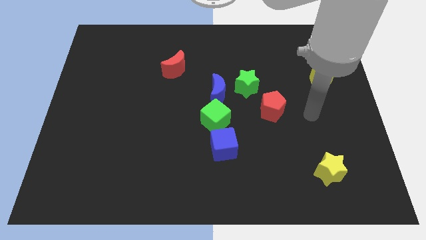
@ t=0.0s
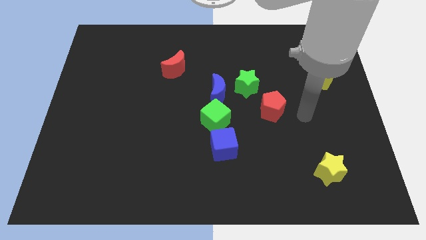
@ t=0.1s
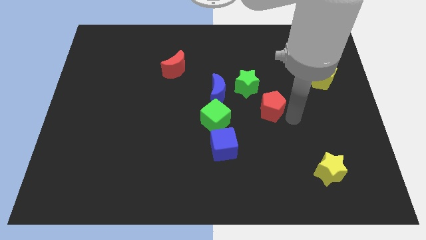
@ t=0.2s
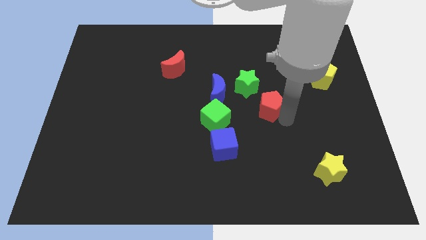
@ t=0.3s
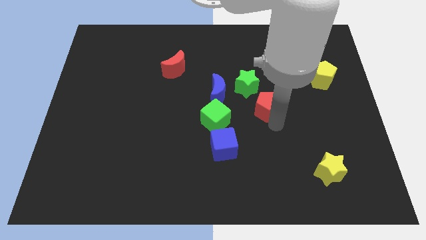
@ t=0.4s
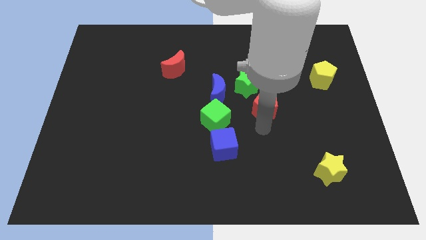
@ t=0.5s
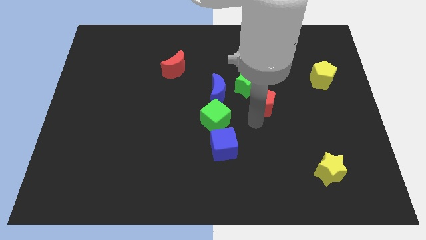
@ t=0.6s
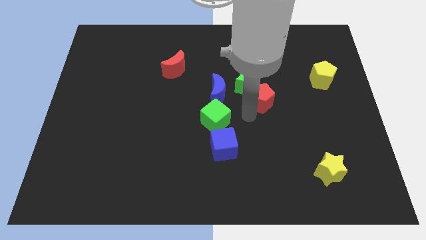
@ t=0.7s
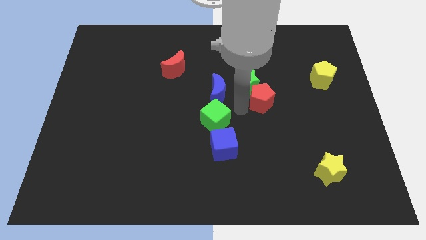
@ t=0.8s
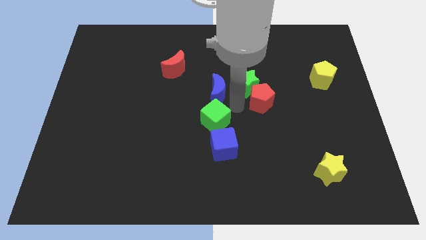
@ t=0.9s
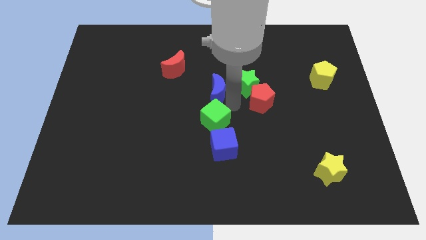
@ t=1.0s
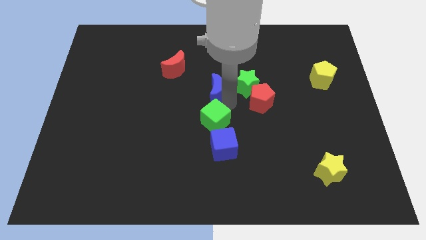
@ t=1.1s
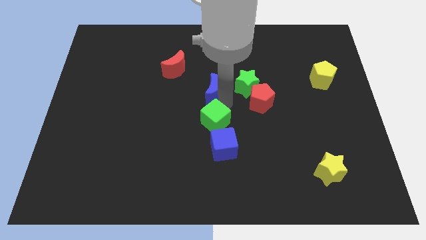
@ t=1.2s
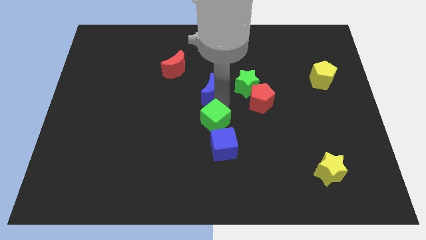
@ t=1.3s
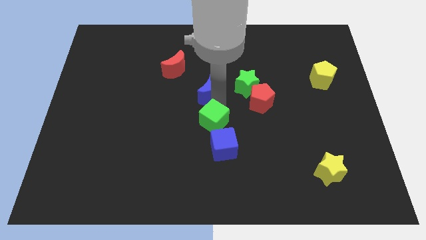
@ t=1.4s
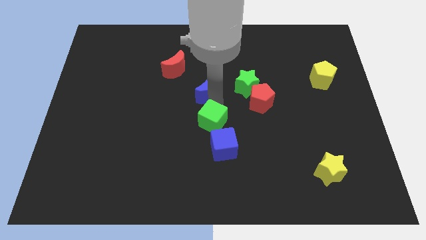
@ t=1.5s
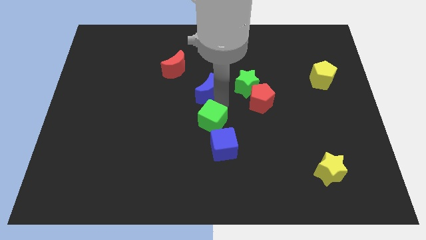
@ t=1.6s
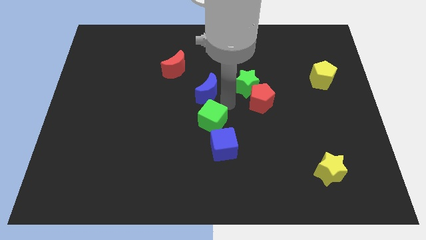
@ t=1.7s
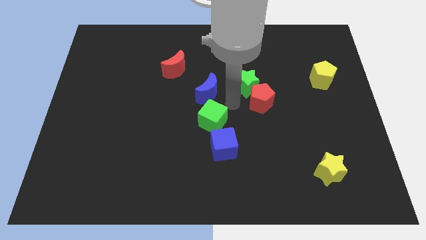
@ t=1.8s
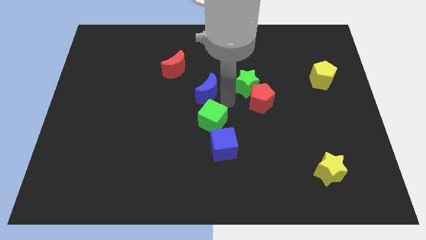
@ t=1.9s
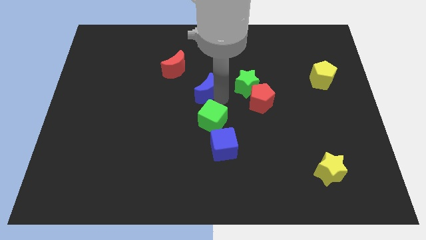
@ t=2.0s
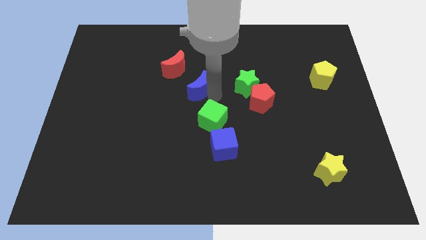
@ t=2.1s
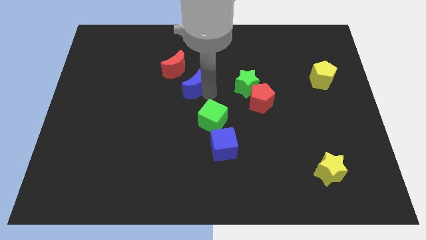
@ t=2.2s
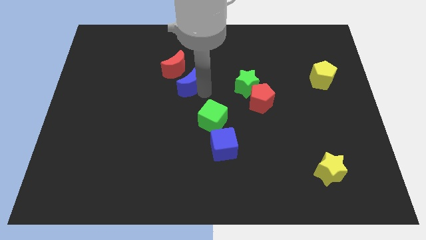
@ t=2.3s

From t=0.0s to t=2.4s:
move the blue moon away from the green star and green cube

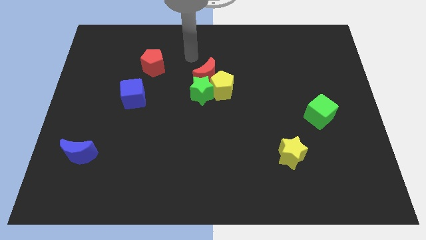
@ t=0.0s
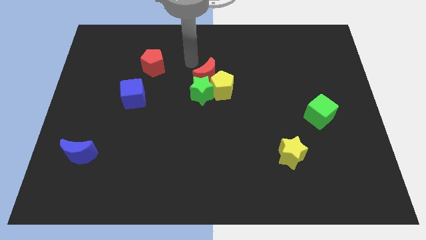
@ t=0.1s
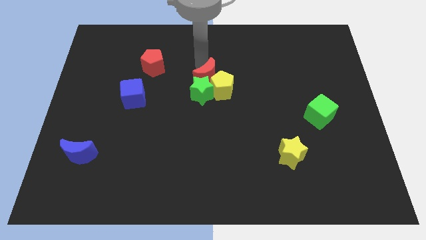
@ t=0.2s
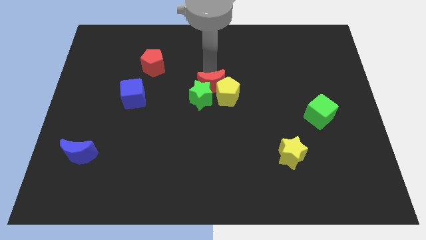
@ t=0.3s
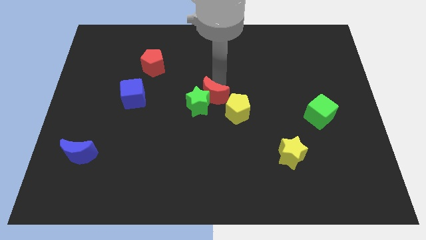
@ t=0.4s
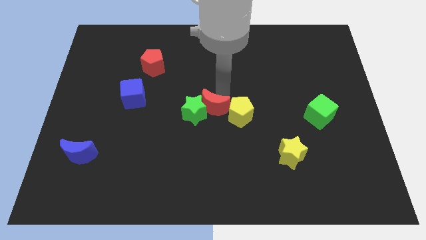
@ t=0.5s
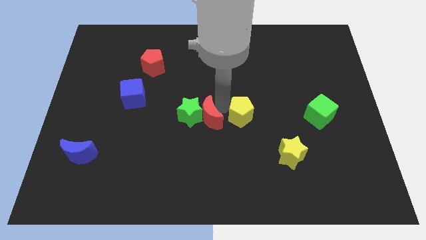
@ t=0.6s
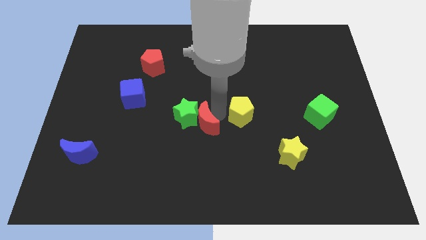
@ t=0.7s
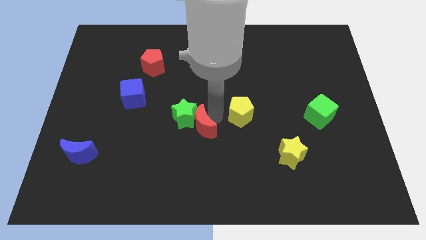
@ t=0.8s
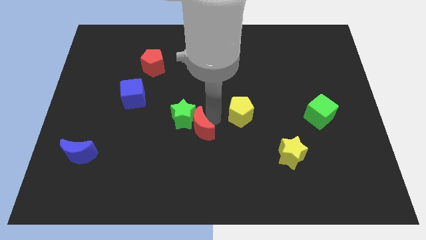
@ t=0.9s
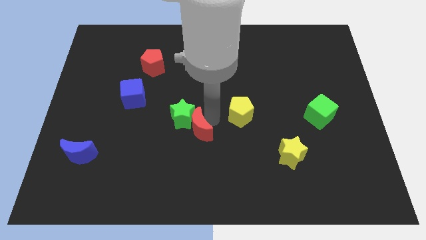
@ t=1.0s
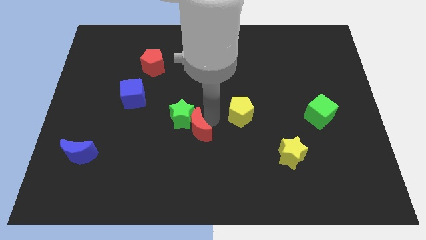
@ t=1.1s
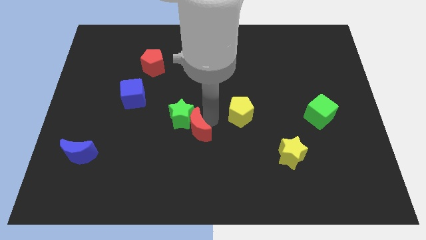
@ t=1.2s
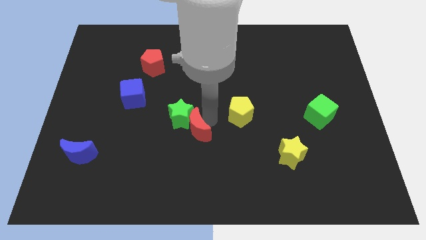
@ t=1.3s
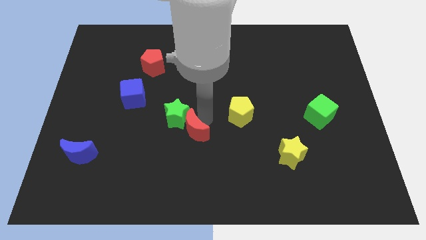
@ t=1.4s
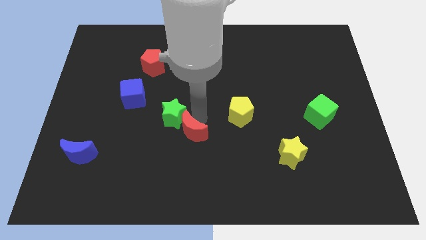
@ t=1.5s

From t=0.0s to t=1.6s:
move the green star away from the yellow pentagon and red moon

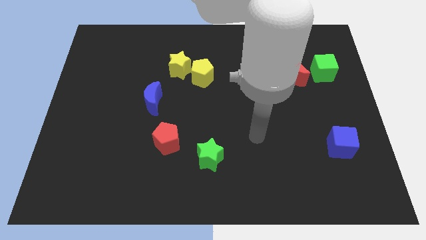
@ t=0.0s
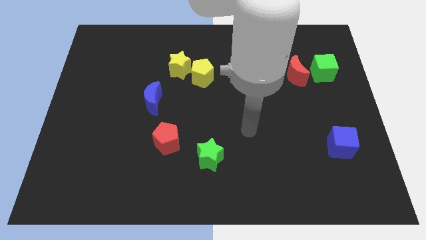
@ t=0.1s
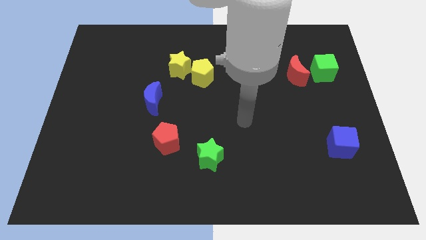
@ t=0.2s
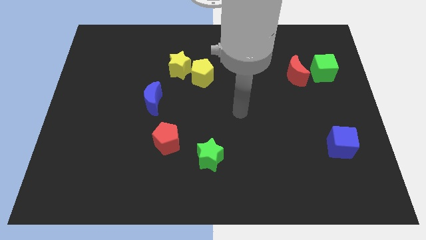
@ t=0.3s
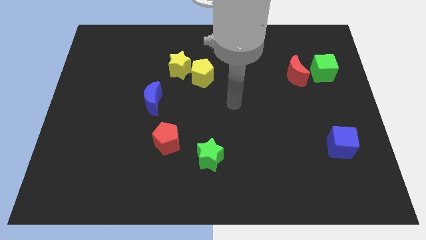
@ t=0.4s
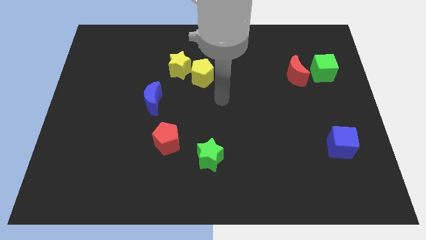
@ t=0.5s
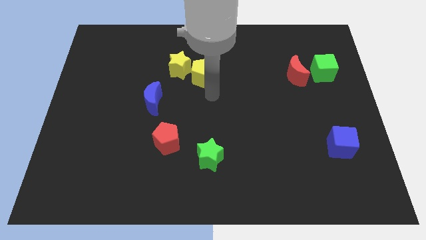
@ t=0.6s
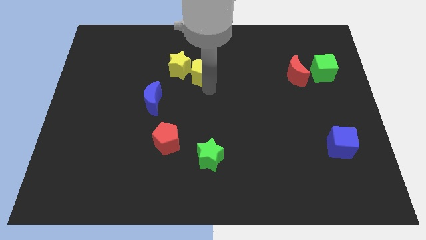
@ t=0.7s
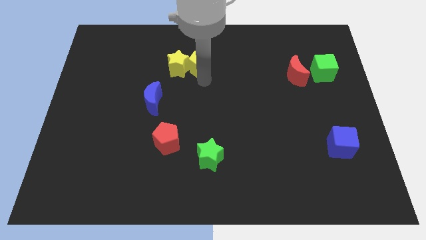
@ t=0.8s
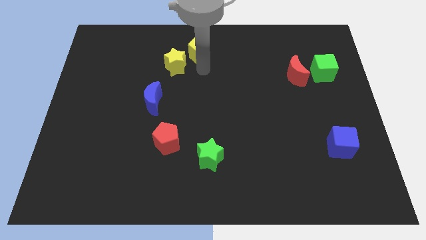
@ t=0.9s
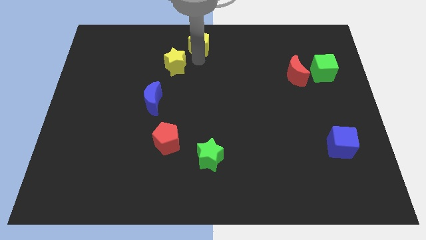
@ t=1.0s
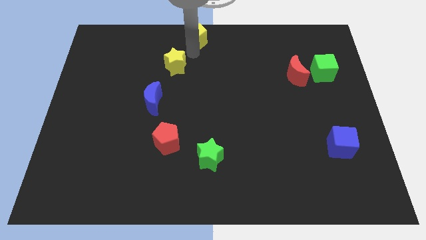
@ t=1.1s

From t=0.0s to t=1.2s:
separate the yellow star from the yellow pentagon

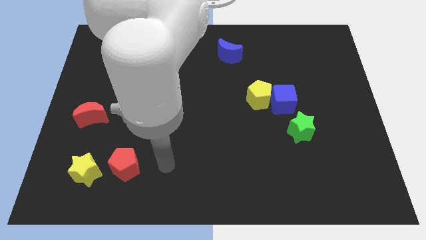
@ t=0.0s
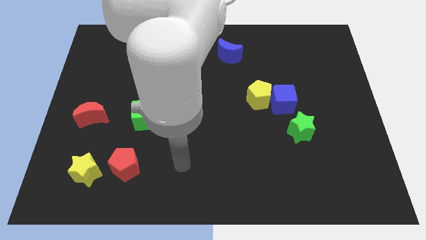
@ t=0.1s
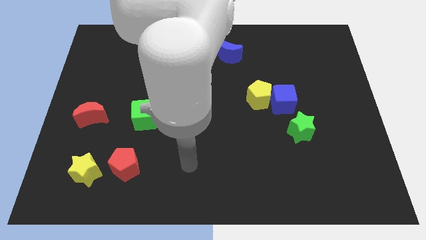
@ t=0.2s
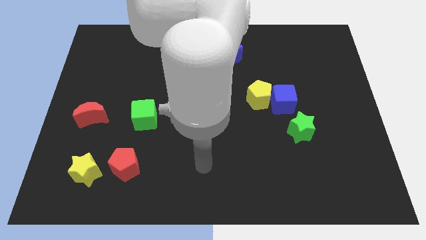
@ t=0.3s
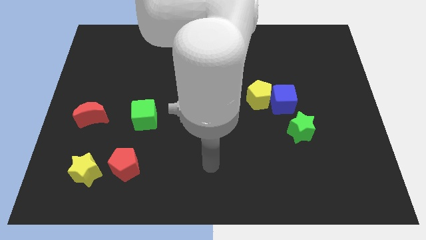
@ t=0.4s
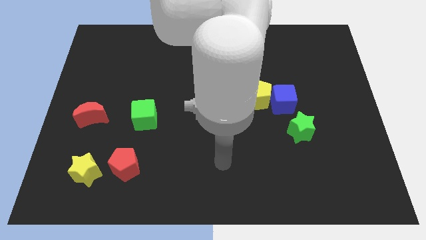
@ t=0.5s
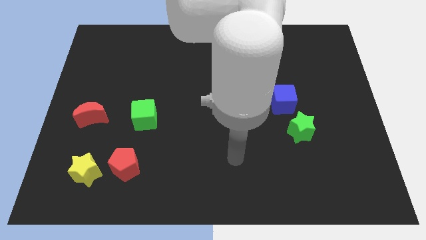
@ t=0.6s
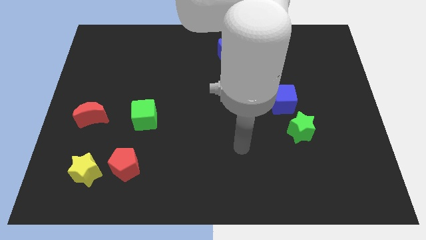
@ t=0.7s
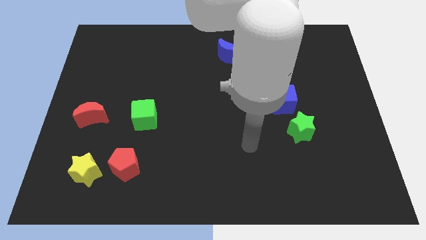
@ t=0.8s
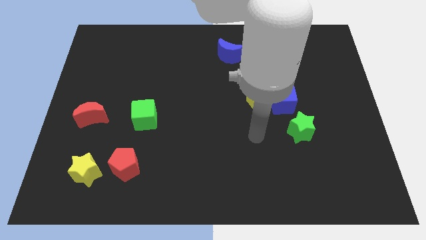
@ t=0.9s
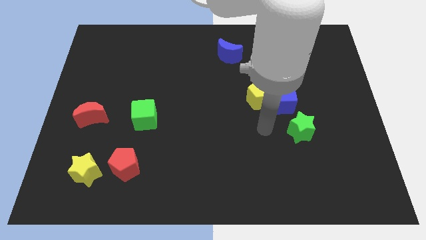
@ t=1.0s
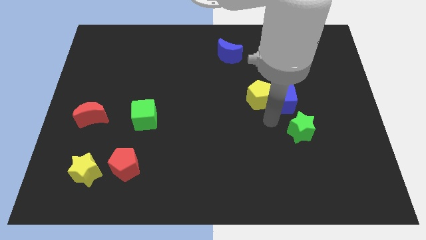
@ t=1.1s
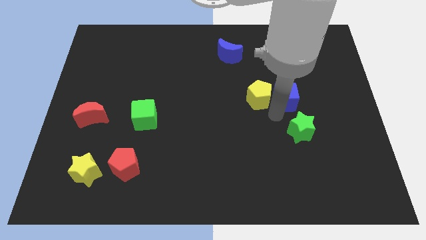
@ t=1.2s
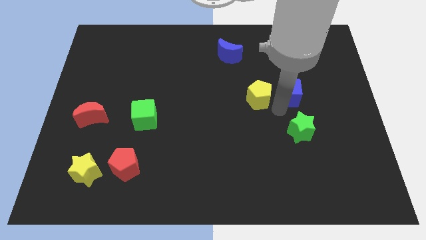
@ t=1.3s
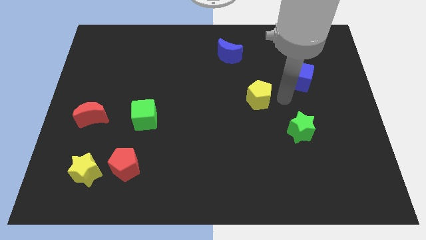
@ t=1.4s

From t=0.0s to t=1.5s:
pull the yellow pentagon apart from the blue cube

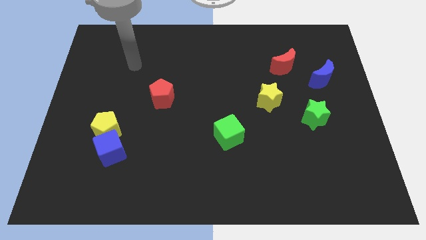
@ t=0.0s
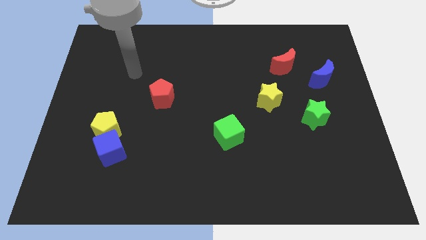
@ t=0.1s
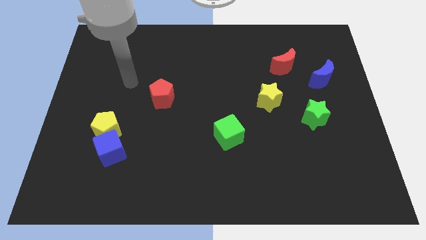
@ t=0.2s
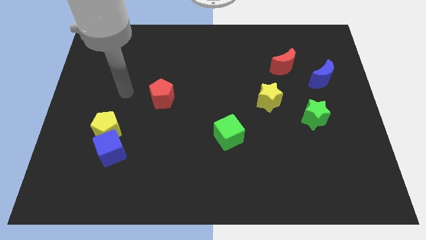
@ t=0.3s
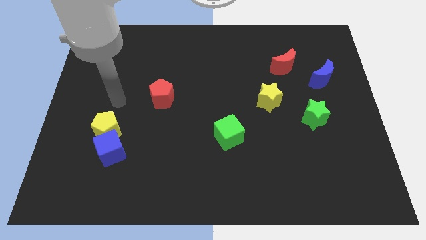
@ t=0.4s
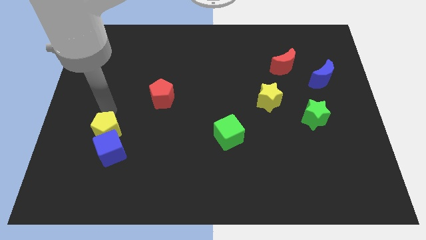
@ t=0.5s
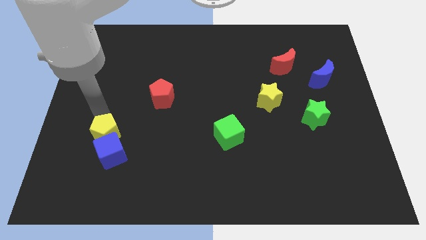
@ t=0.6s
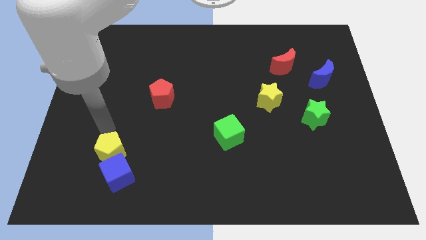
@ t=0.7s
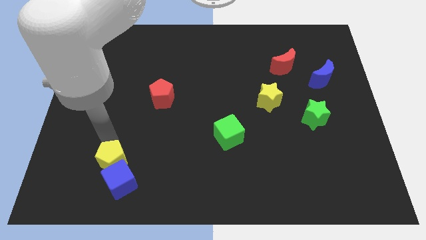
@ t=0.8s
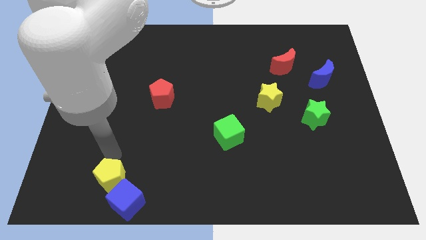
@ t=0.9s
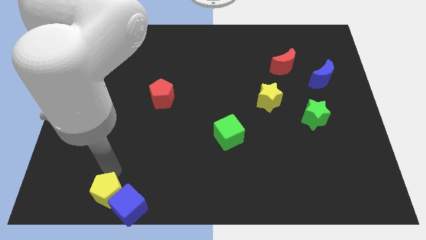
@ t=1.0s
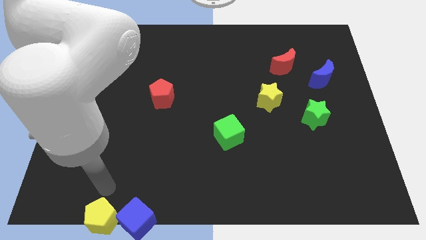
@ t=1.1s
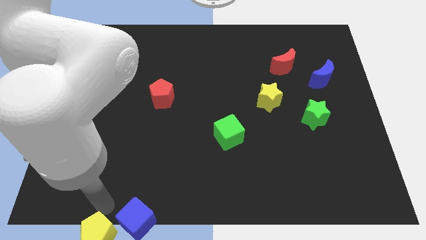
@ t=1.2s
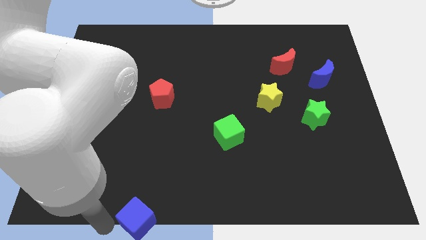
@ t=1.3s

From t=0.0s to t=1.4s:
separate the blue cube from the yellow pentagon

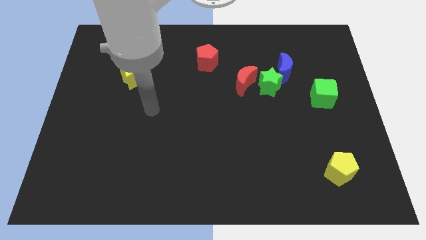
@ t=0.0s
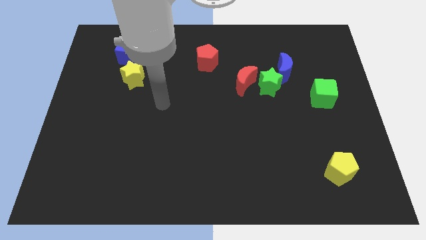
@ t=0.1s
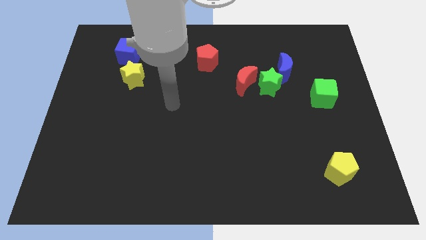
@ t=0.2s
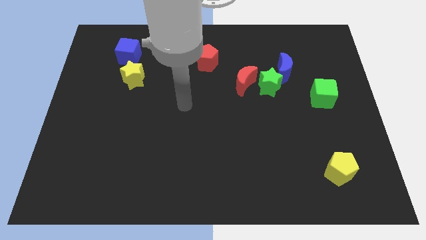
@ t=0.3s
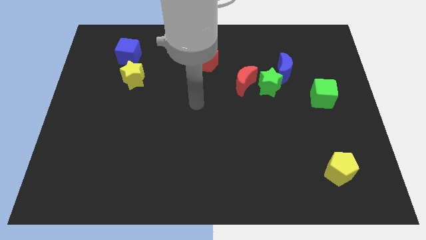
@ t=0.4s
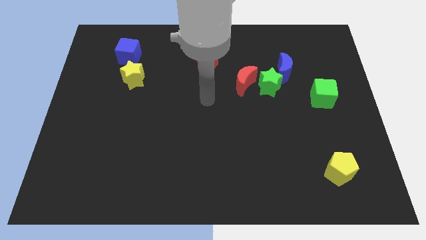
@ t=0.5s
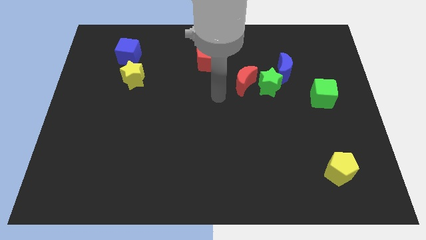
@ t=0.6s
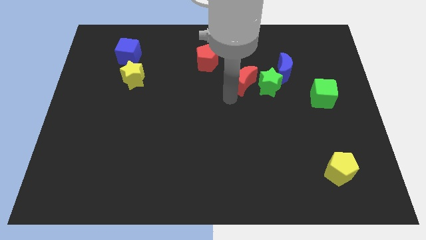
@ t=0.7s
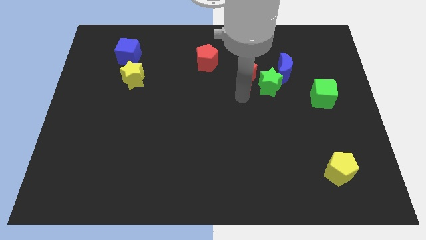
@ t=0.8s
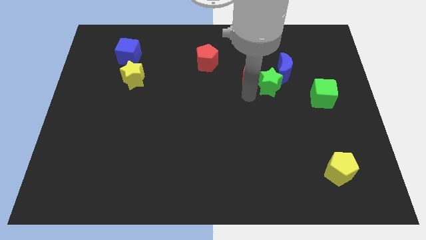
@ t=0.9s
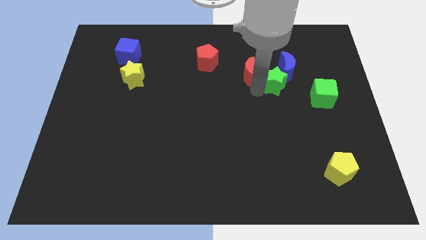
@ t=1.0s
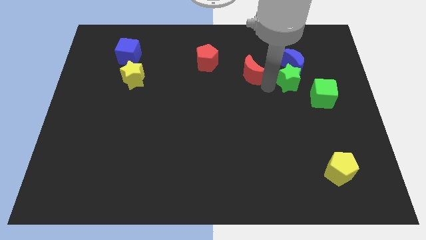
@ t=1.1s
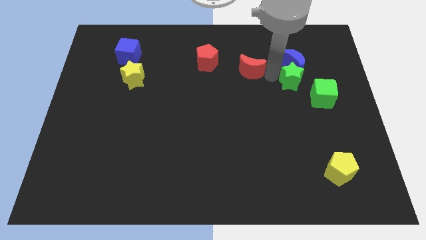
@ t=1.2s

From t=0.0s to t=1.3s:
pull the red moon apart from the green star
